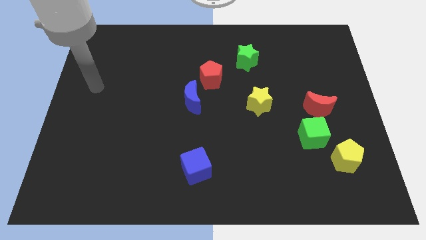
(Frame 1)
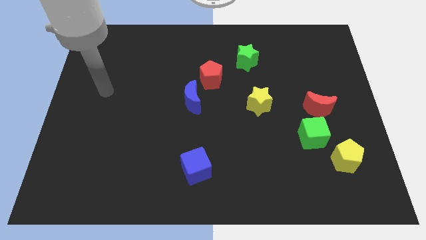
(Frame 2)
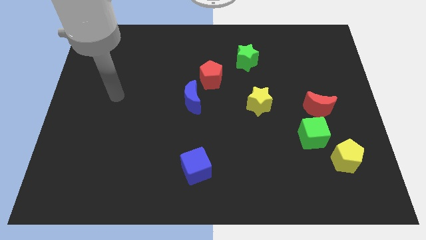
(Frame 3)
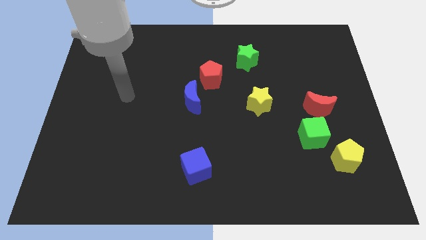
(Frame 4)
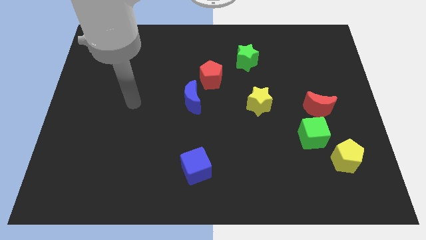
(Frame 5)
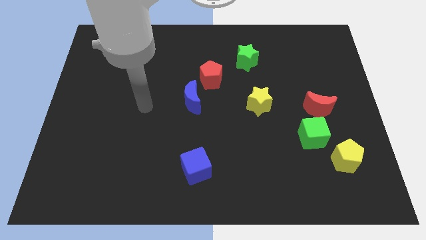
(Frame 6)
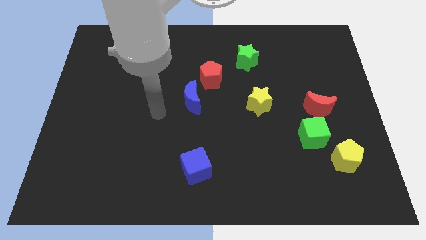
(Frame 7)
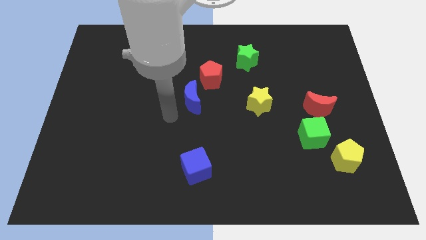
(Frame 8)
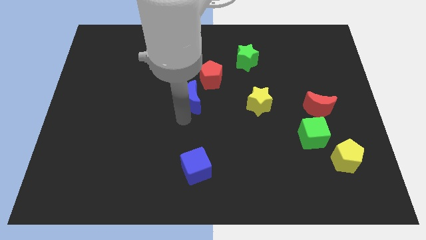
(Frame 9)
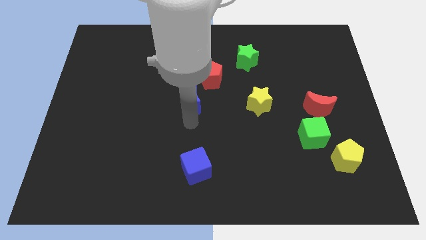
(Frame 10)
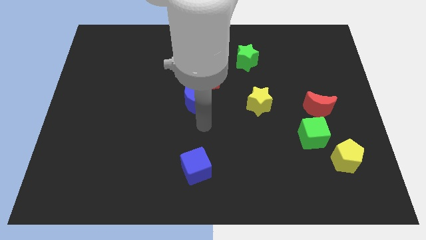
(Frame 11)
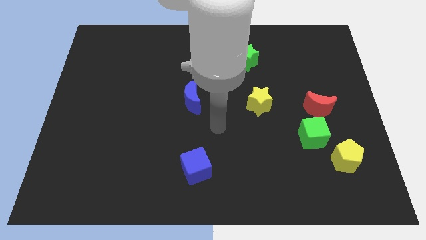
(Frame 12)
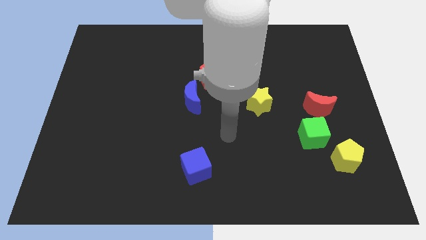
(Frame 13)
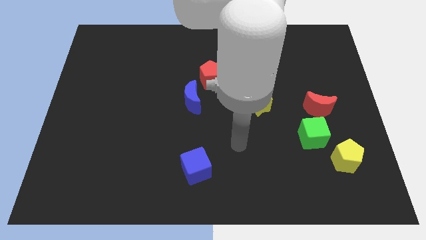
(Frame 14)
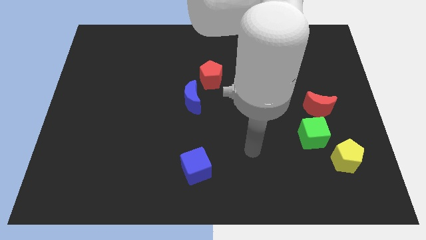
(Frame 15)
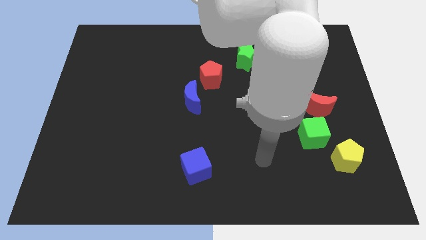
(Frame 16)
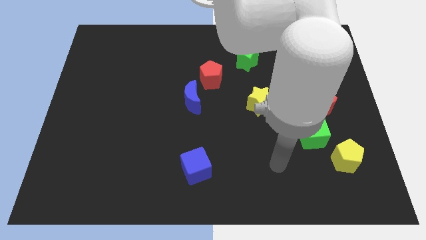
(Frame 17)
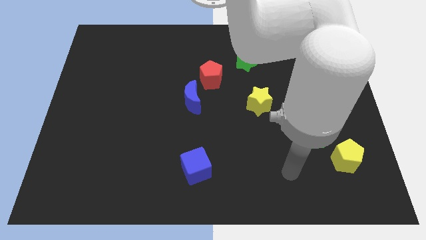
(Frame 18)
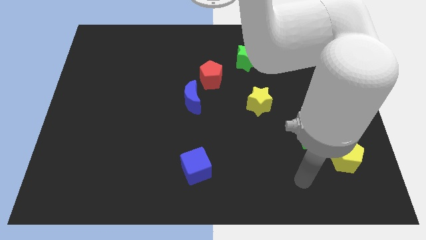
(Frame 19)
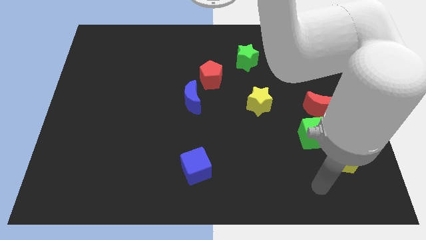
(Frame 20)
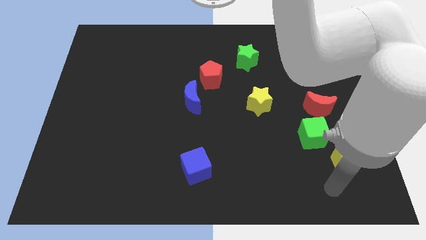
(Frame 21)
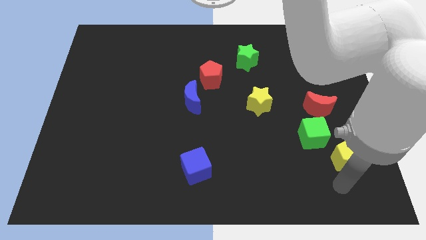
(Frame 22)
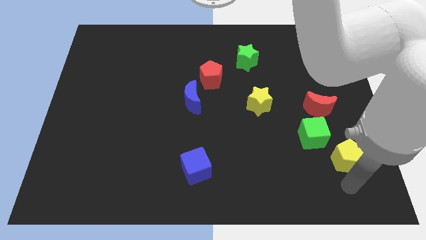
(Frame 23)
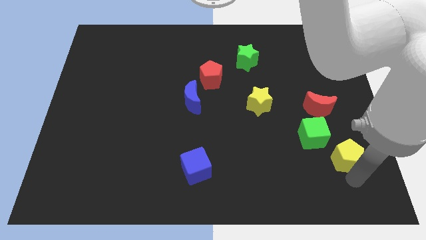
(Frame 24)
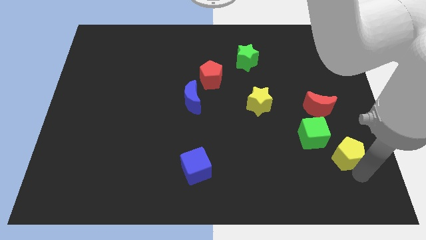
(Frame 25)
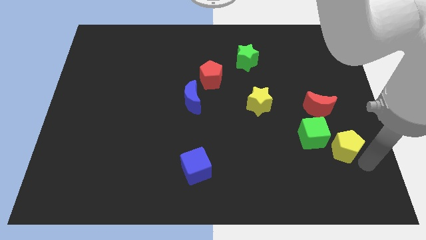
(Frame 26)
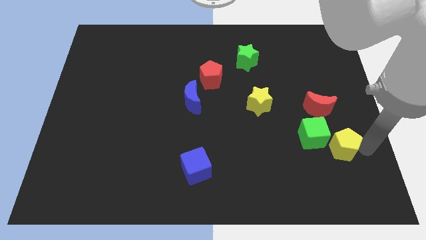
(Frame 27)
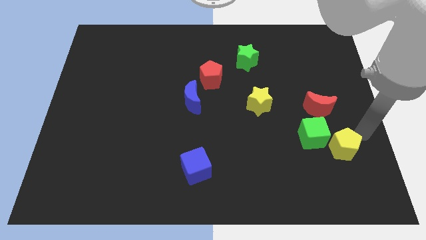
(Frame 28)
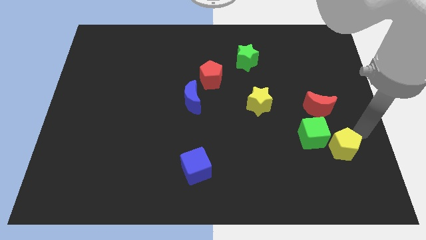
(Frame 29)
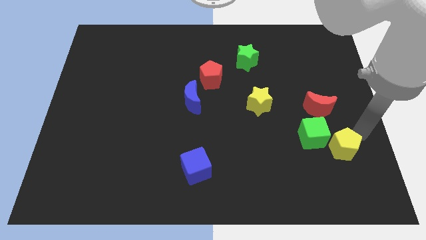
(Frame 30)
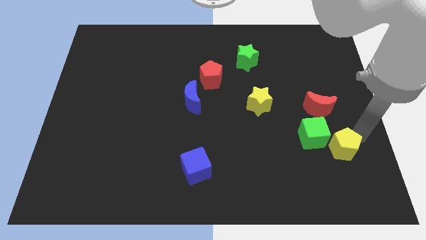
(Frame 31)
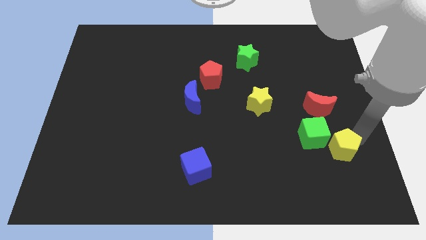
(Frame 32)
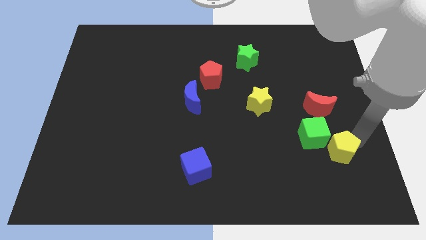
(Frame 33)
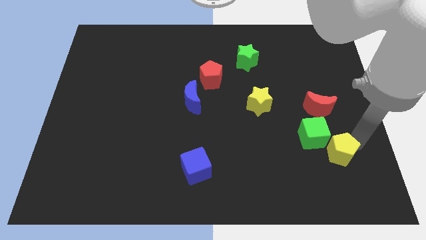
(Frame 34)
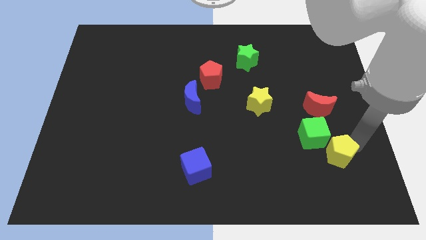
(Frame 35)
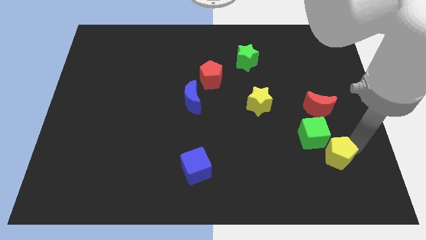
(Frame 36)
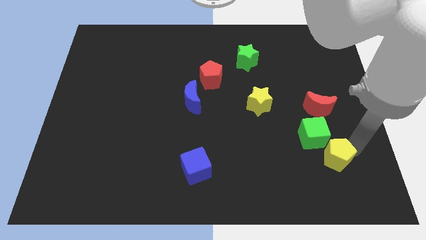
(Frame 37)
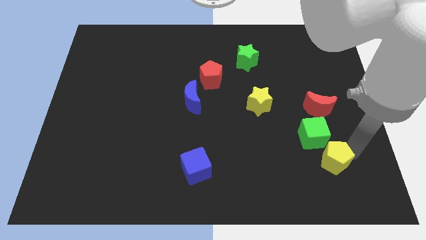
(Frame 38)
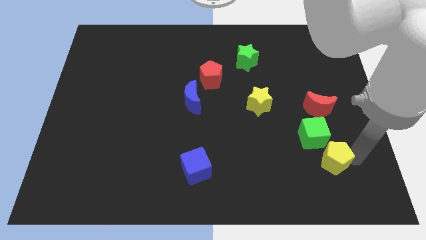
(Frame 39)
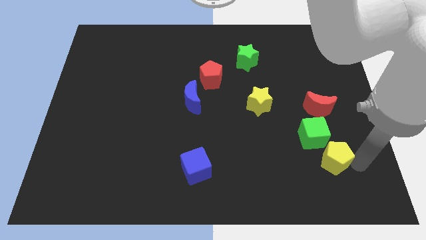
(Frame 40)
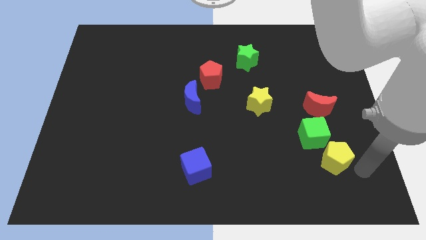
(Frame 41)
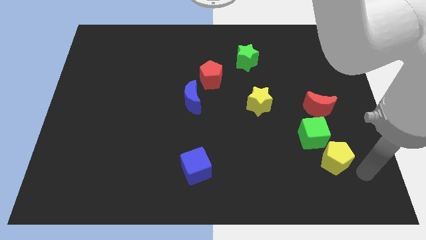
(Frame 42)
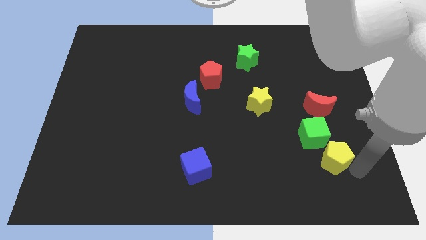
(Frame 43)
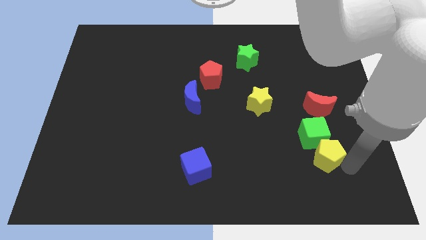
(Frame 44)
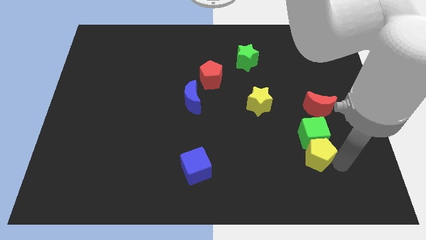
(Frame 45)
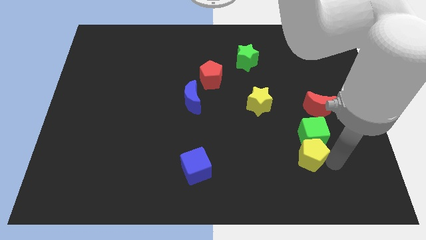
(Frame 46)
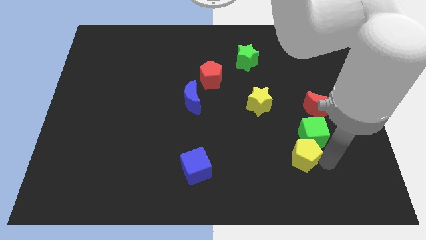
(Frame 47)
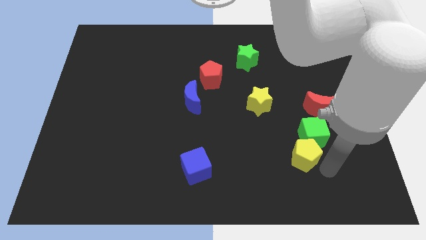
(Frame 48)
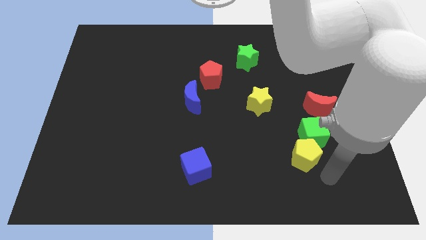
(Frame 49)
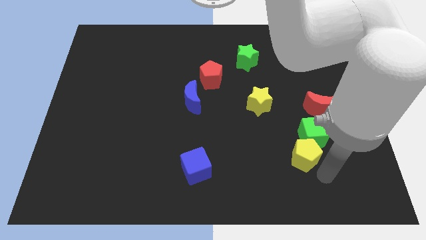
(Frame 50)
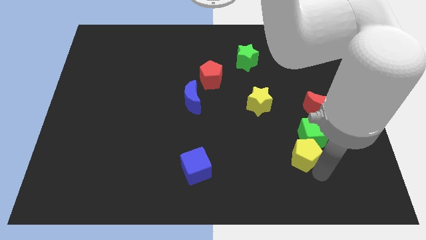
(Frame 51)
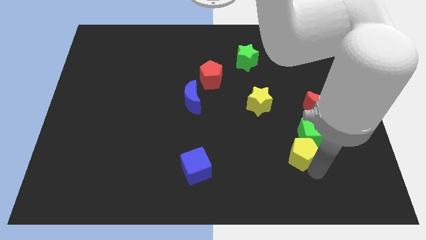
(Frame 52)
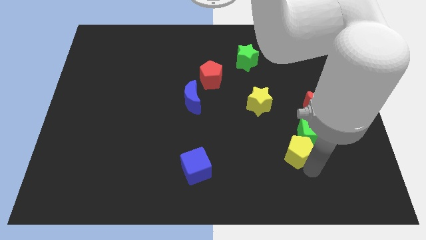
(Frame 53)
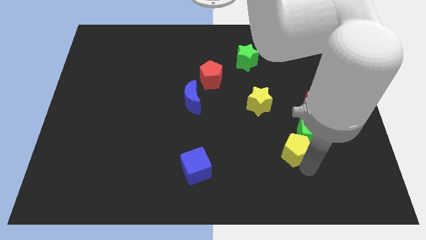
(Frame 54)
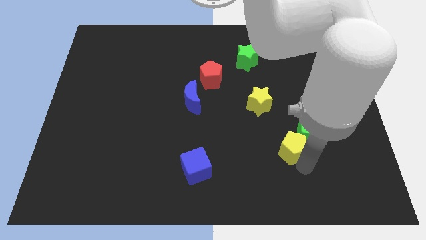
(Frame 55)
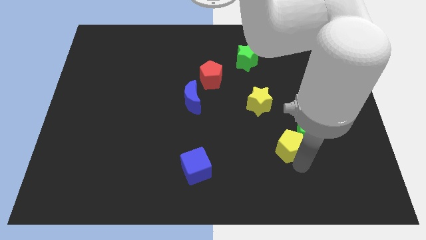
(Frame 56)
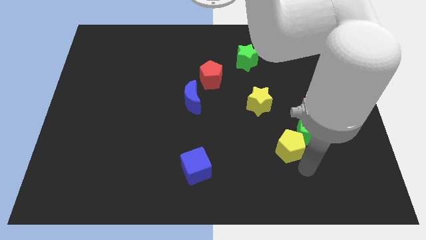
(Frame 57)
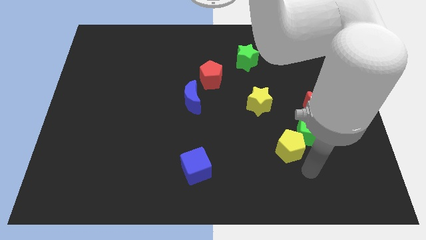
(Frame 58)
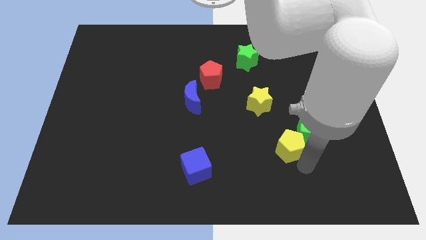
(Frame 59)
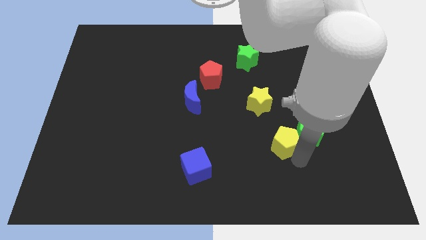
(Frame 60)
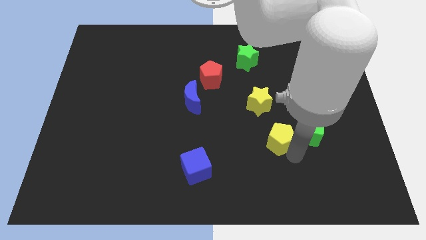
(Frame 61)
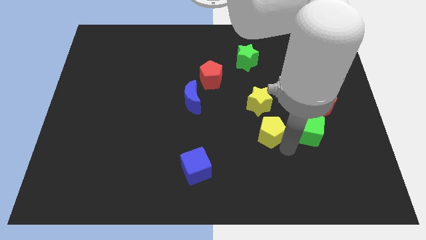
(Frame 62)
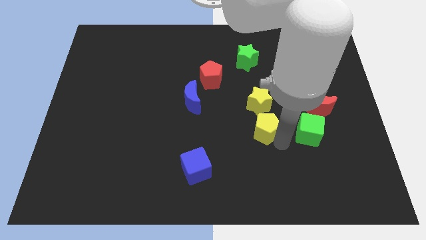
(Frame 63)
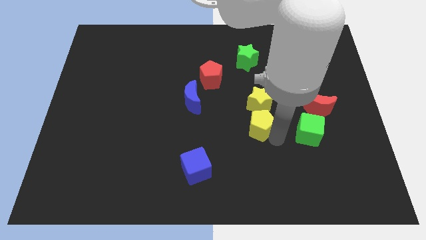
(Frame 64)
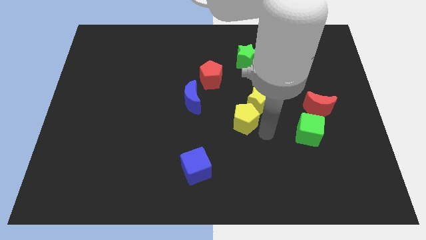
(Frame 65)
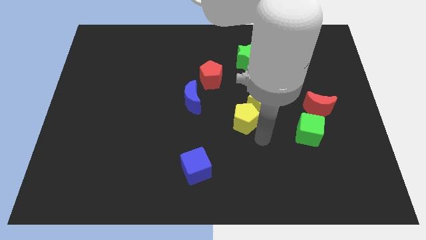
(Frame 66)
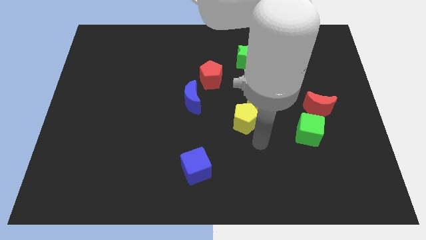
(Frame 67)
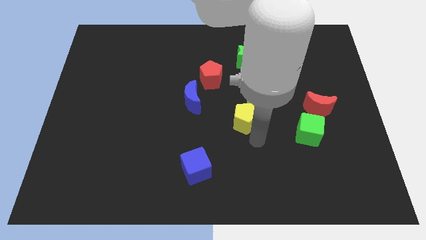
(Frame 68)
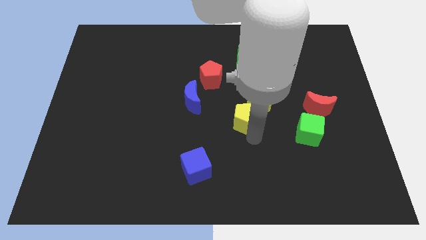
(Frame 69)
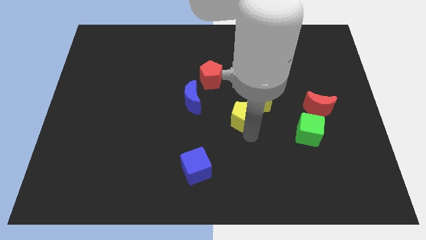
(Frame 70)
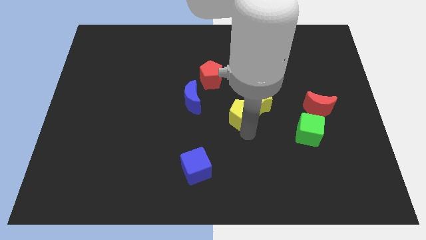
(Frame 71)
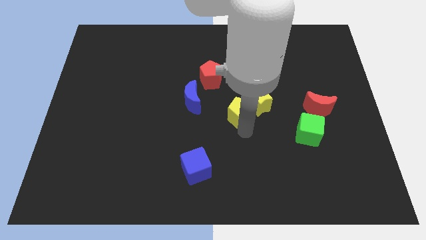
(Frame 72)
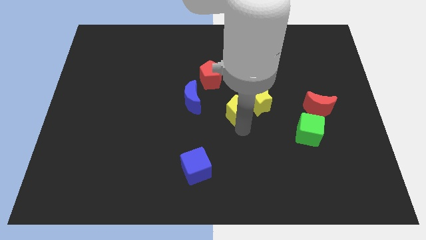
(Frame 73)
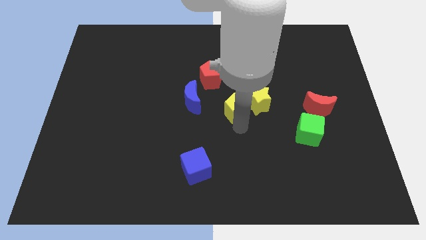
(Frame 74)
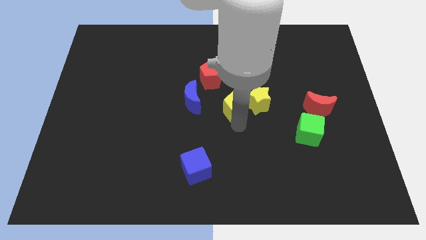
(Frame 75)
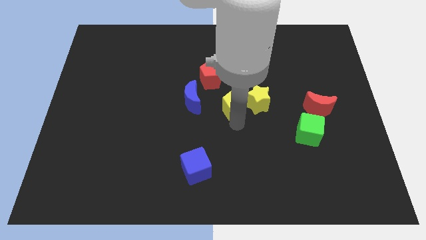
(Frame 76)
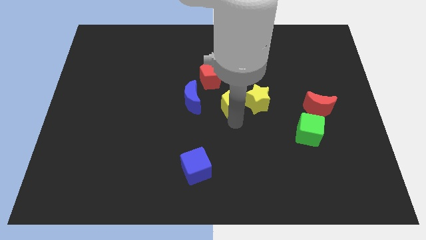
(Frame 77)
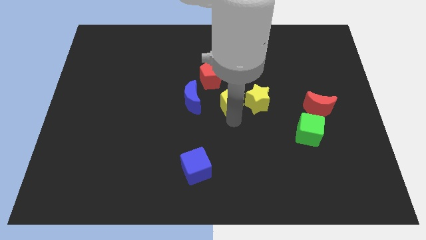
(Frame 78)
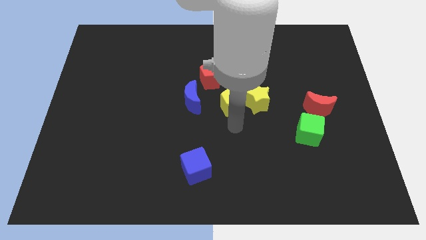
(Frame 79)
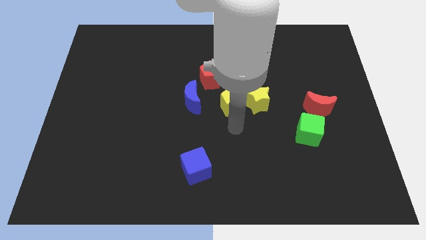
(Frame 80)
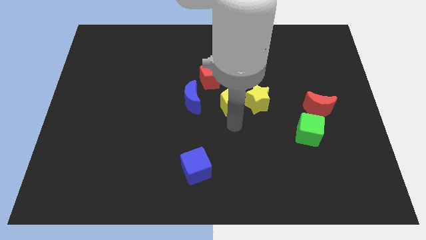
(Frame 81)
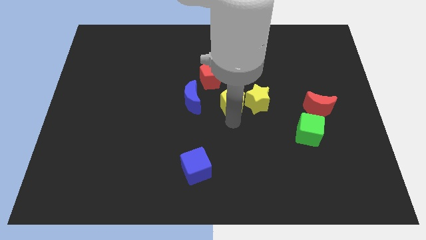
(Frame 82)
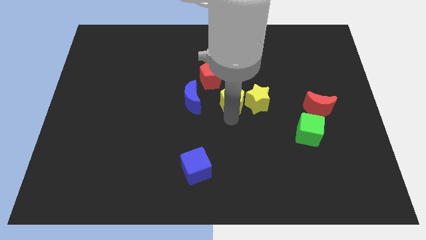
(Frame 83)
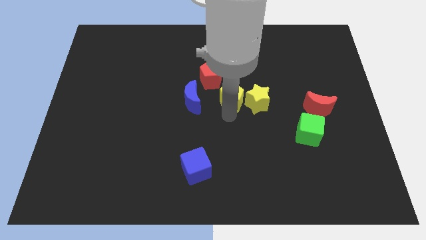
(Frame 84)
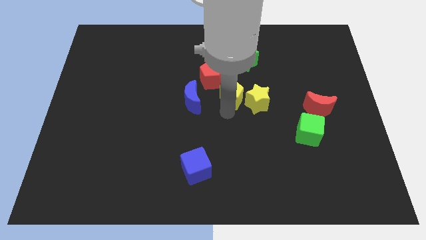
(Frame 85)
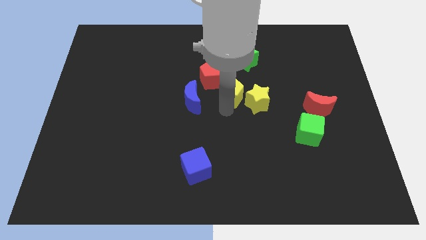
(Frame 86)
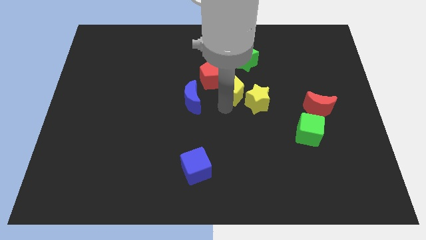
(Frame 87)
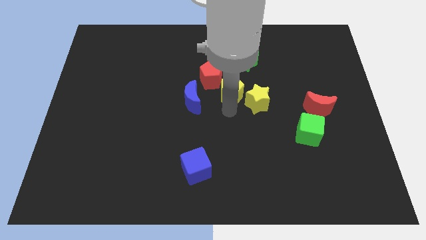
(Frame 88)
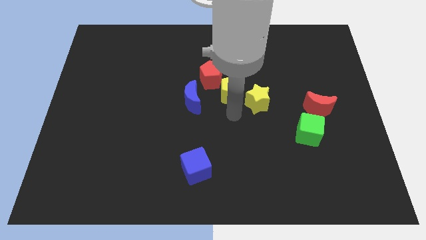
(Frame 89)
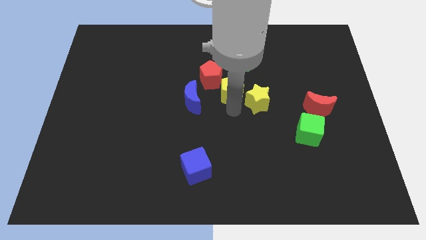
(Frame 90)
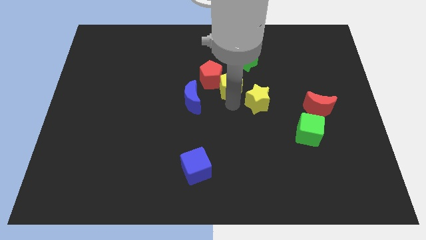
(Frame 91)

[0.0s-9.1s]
move the yellow pentagon to the bottom left side of the green star
